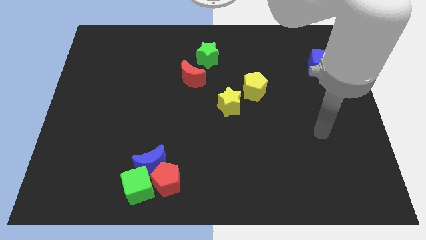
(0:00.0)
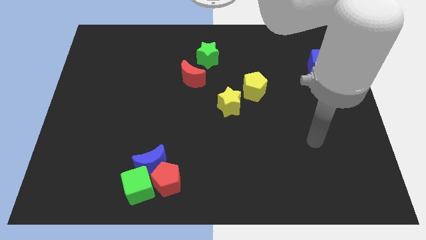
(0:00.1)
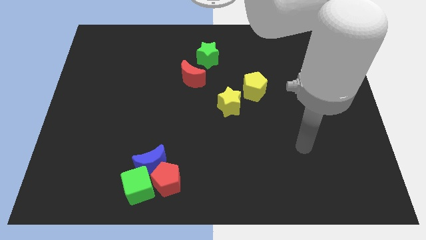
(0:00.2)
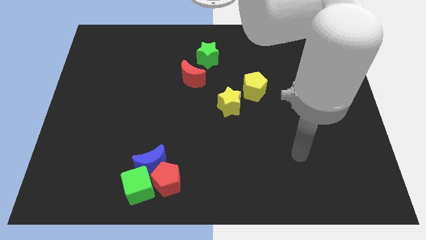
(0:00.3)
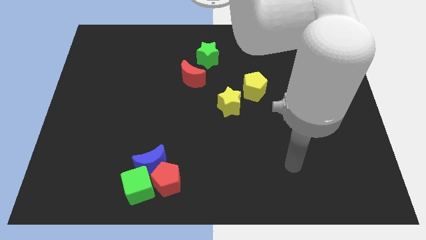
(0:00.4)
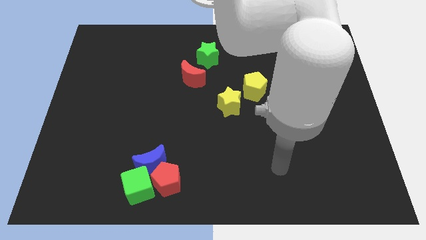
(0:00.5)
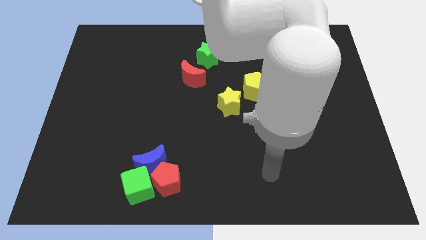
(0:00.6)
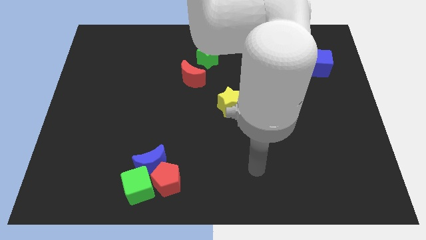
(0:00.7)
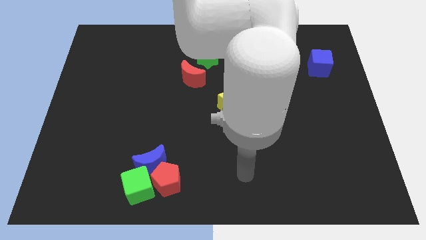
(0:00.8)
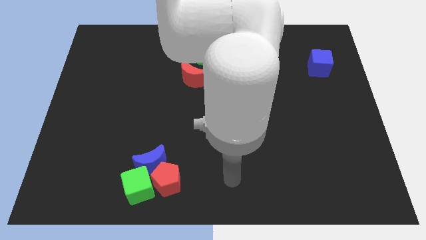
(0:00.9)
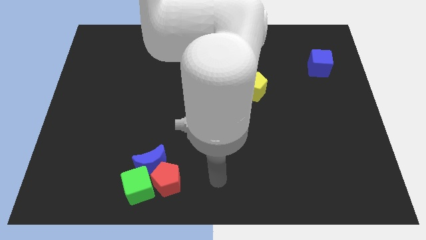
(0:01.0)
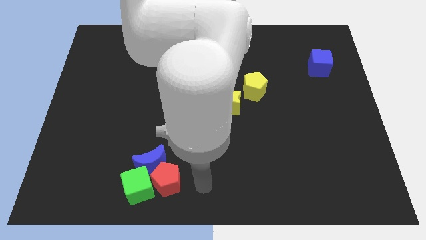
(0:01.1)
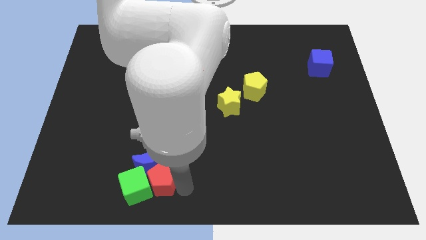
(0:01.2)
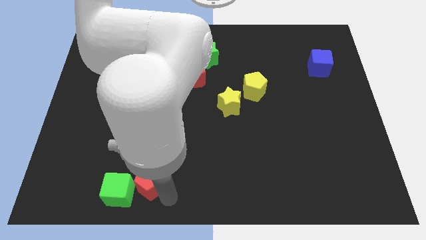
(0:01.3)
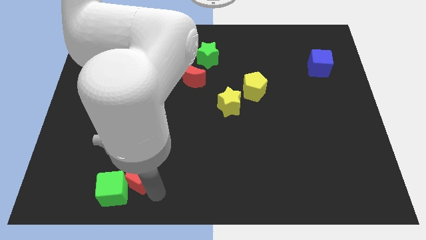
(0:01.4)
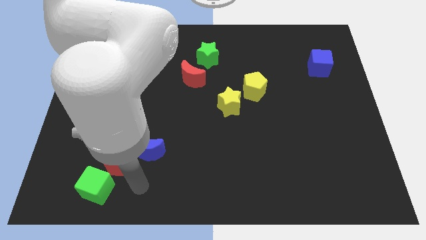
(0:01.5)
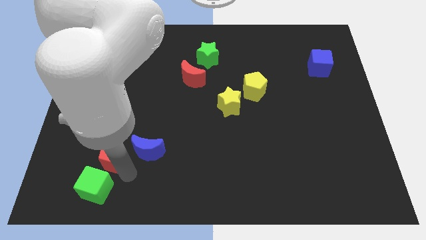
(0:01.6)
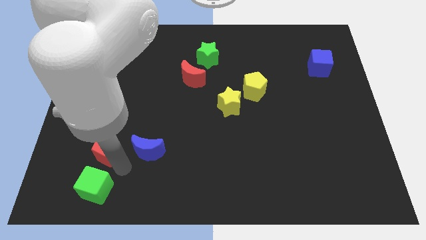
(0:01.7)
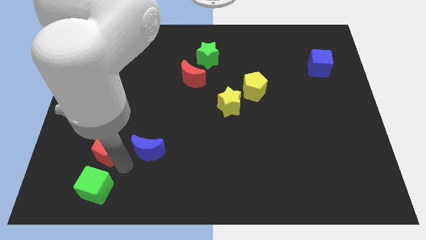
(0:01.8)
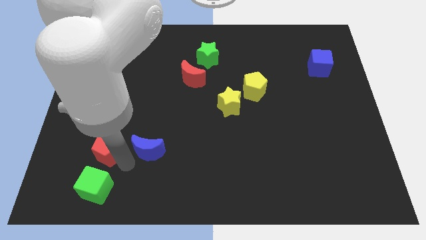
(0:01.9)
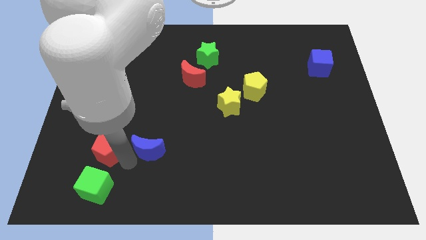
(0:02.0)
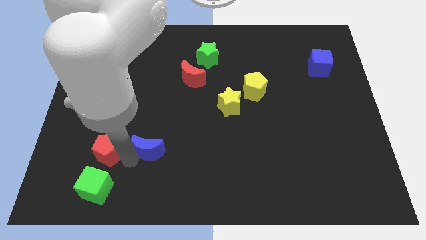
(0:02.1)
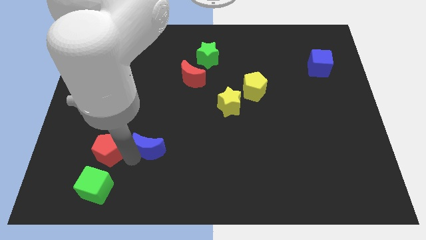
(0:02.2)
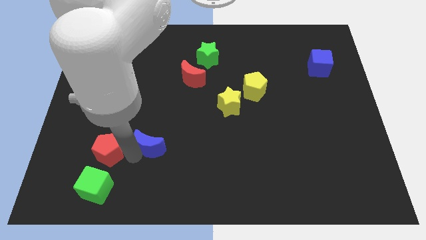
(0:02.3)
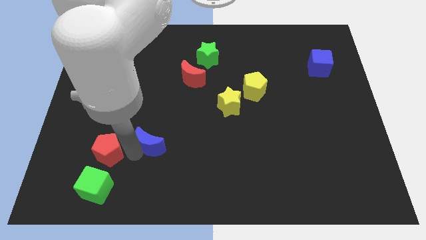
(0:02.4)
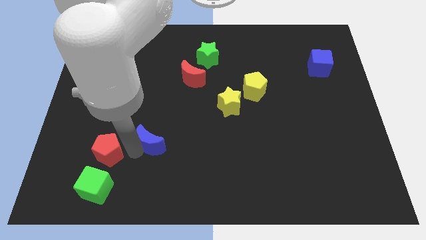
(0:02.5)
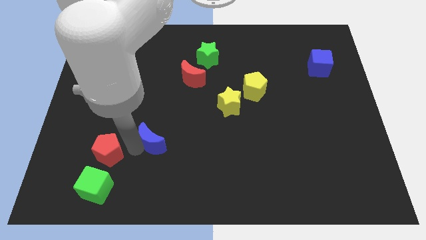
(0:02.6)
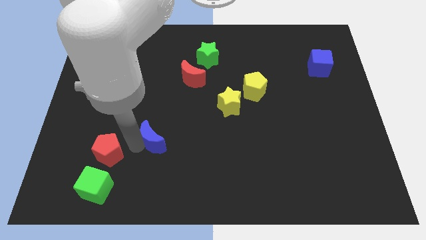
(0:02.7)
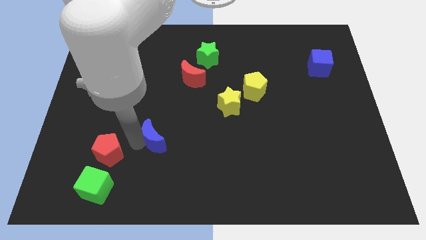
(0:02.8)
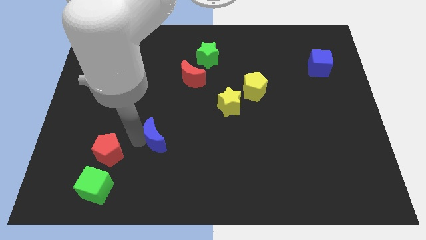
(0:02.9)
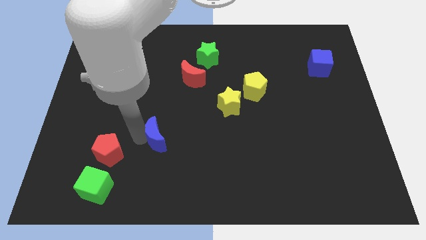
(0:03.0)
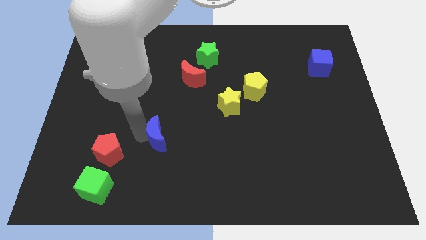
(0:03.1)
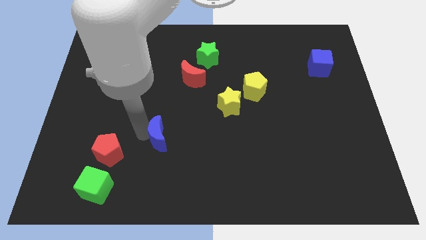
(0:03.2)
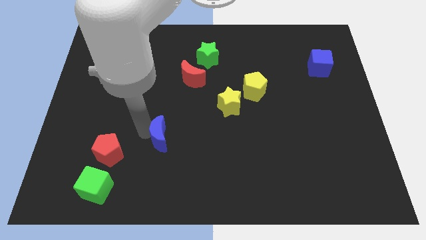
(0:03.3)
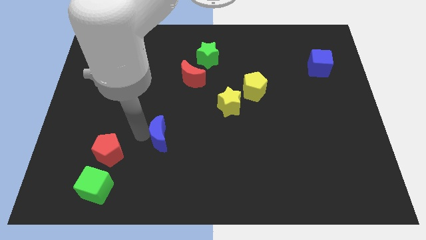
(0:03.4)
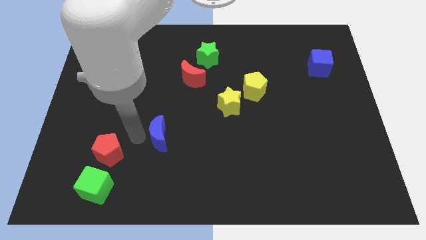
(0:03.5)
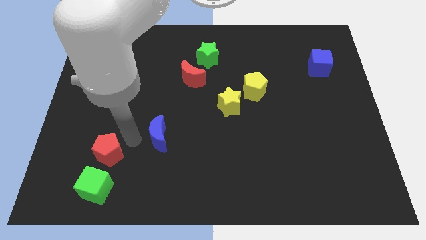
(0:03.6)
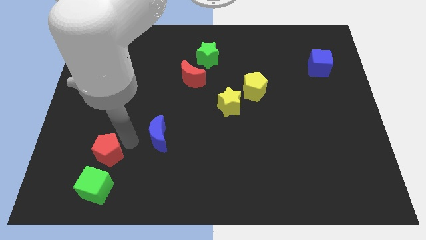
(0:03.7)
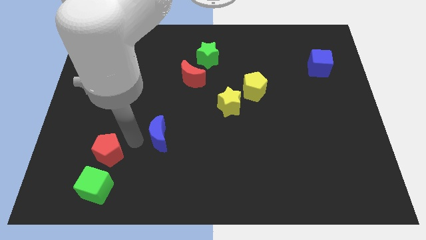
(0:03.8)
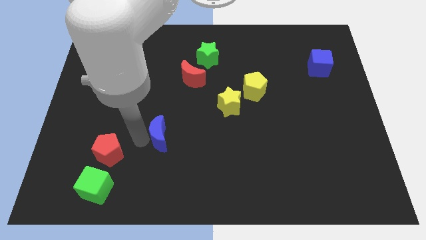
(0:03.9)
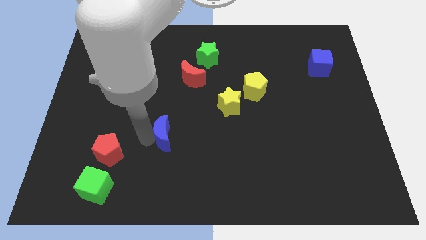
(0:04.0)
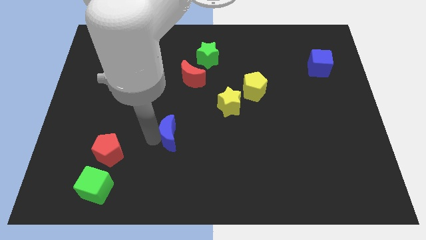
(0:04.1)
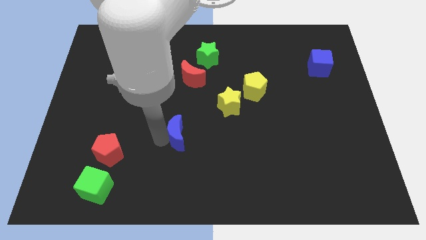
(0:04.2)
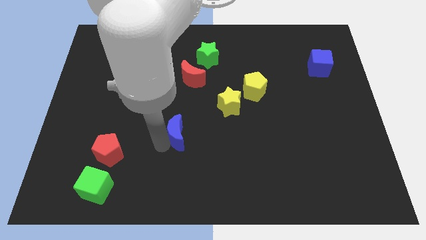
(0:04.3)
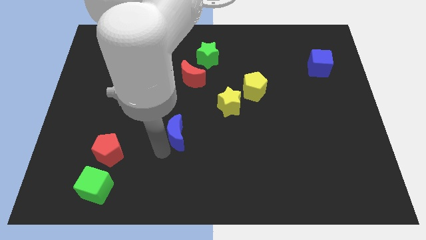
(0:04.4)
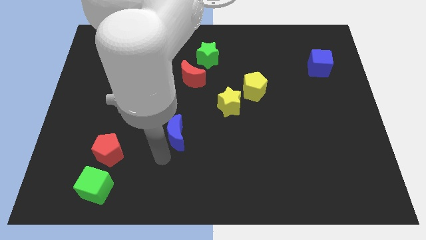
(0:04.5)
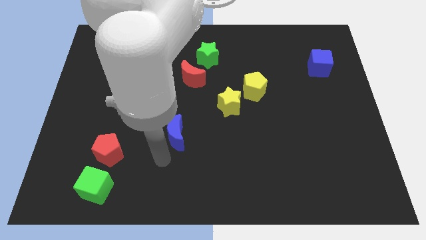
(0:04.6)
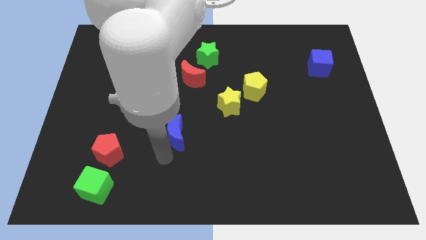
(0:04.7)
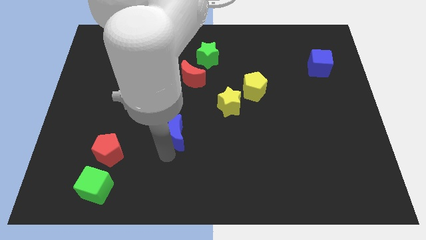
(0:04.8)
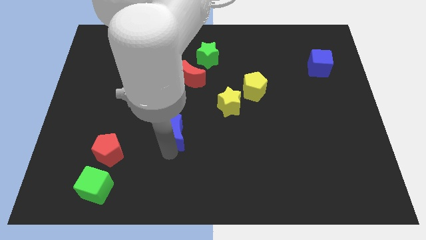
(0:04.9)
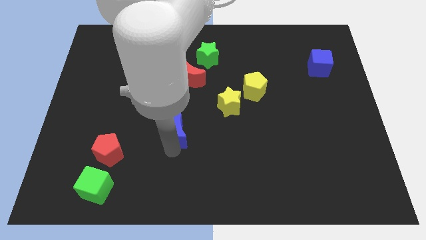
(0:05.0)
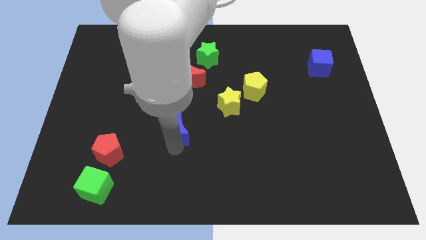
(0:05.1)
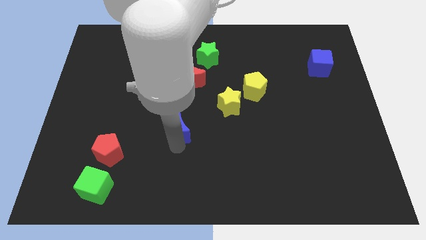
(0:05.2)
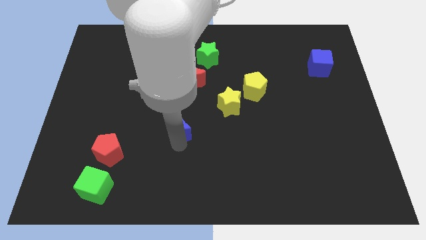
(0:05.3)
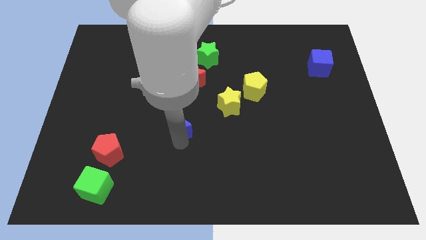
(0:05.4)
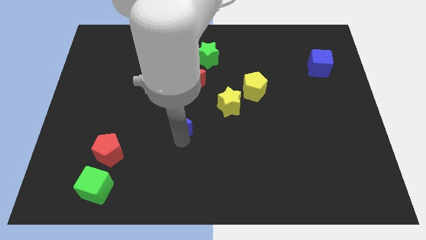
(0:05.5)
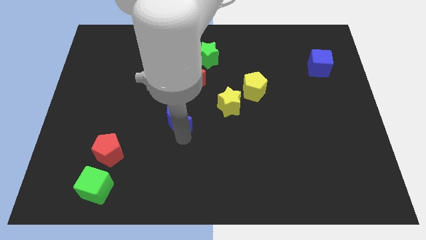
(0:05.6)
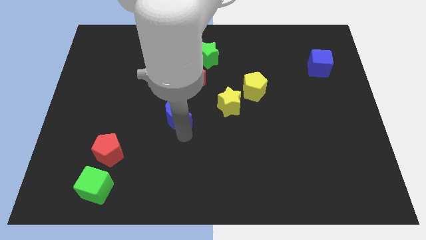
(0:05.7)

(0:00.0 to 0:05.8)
push the blue moon just left of the yellow star

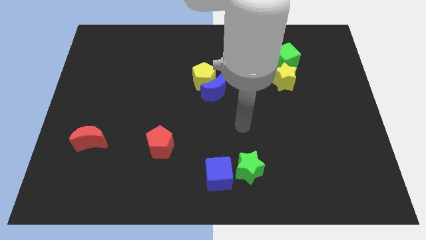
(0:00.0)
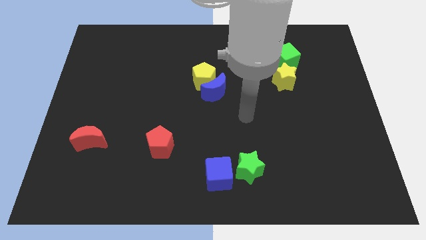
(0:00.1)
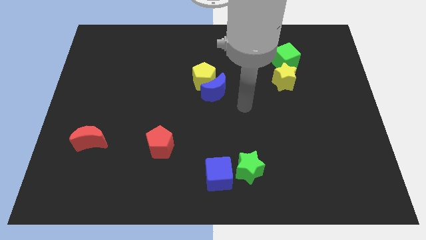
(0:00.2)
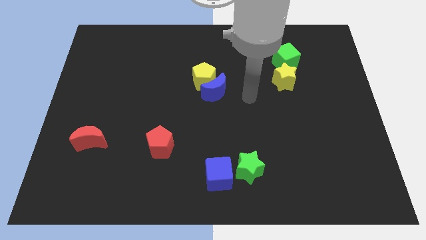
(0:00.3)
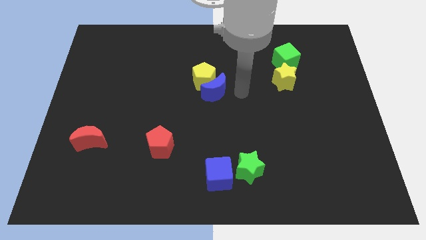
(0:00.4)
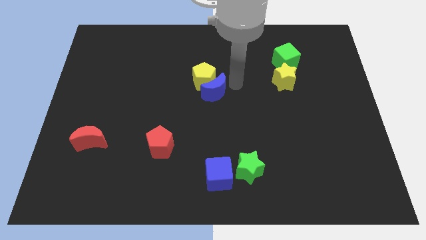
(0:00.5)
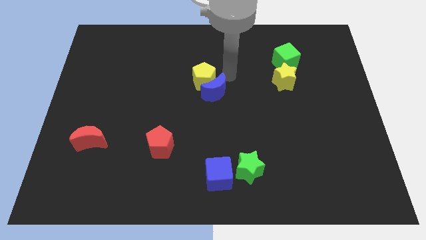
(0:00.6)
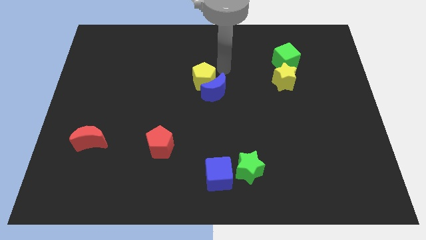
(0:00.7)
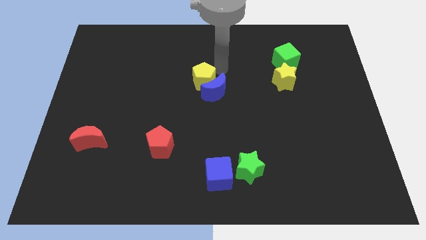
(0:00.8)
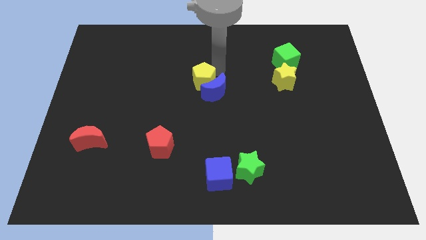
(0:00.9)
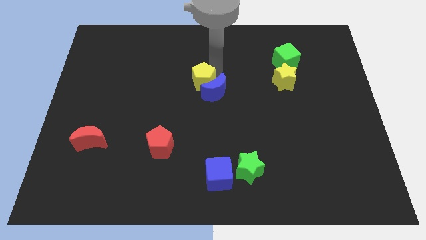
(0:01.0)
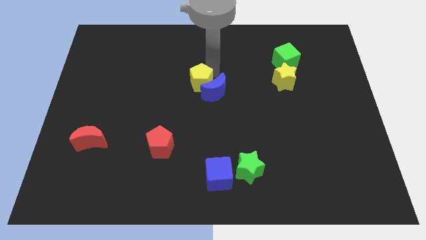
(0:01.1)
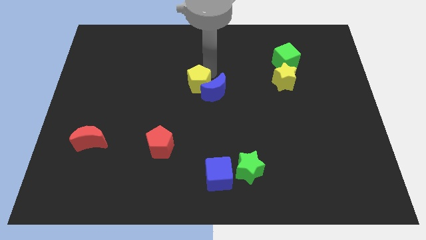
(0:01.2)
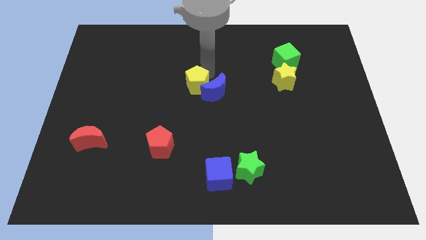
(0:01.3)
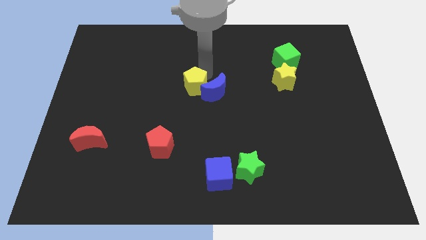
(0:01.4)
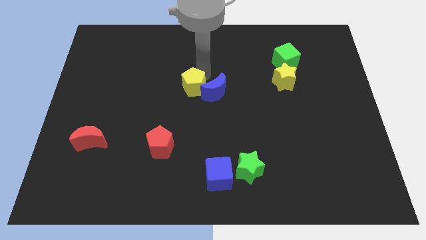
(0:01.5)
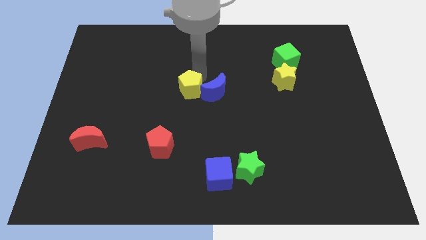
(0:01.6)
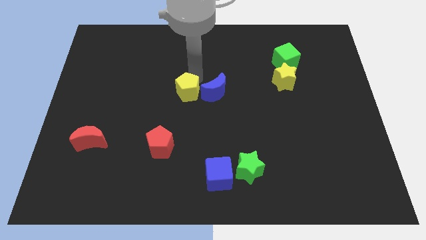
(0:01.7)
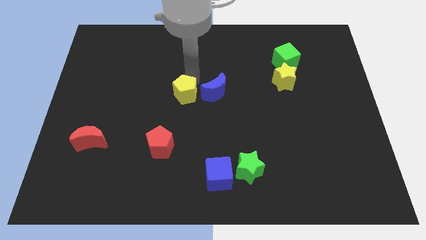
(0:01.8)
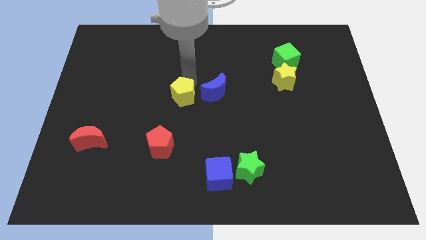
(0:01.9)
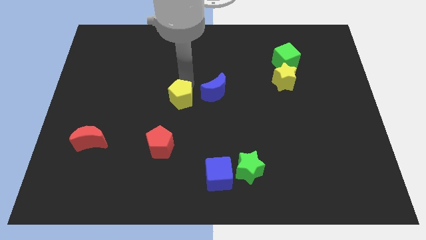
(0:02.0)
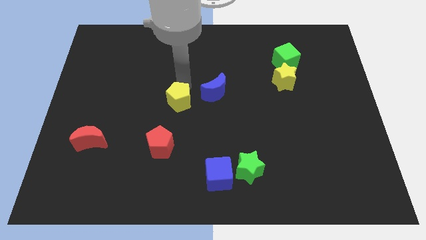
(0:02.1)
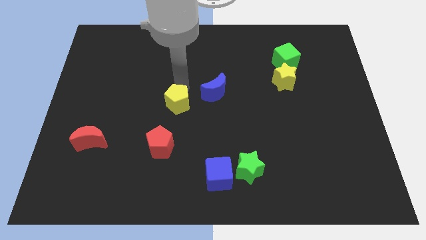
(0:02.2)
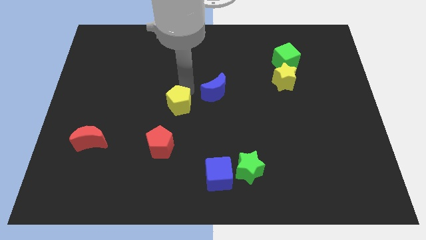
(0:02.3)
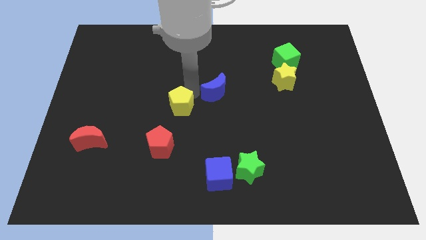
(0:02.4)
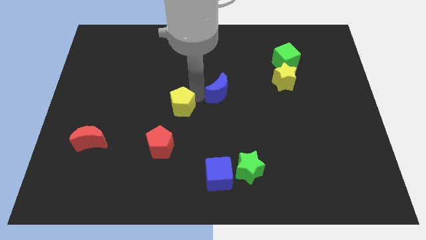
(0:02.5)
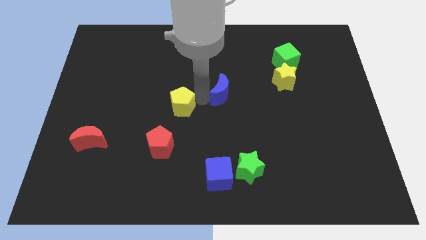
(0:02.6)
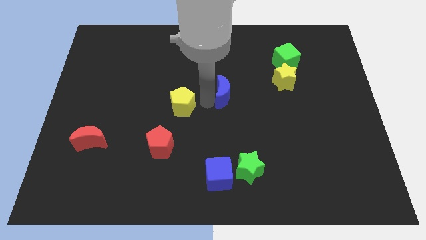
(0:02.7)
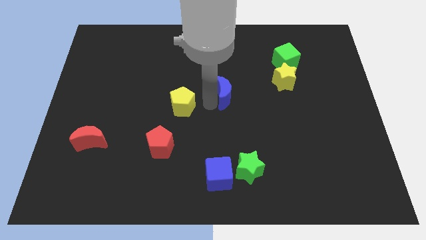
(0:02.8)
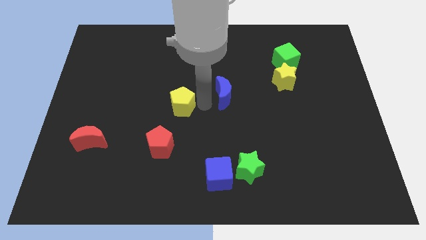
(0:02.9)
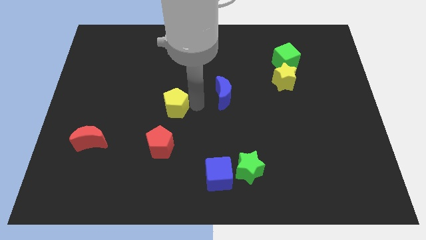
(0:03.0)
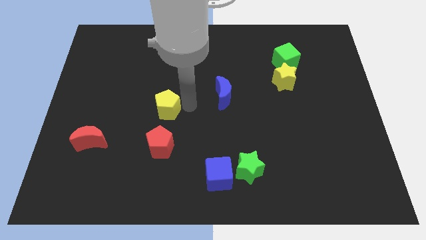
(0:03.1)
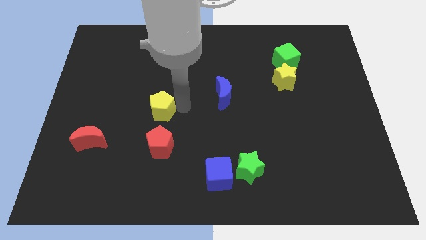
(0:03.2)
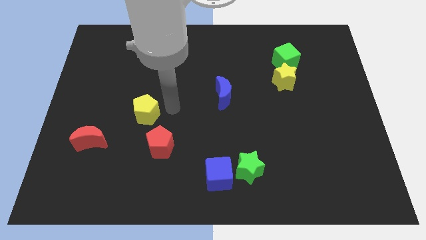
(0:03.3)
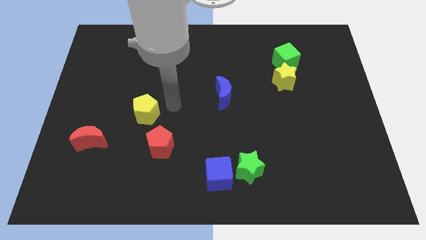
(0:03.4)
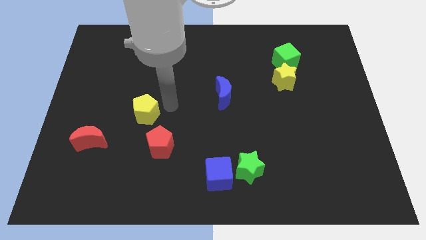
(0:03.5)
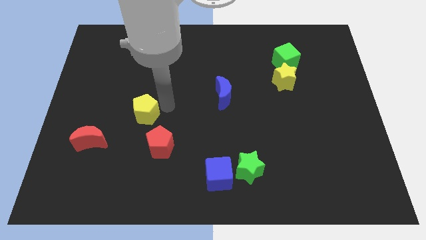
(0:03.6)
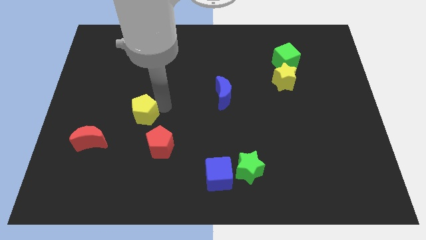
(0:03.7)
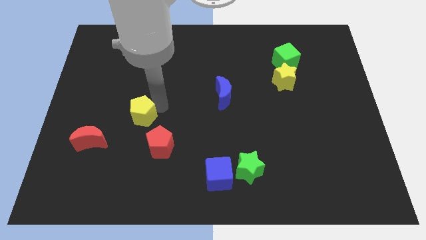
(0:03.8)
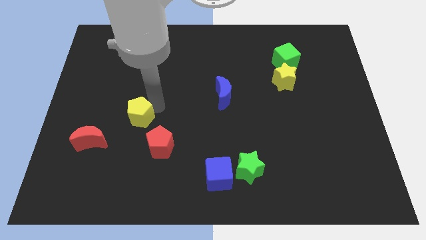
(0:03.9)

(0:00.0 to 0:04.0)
push the yellow pentagon diagonally up and to the right of the red moon
